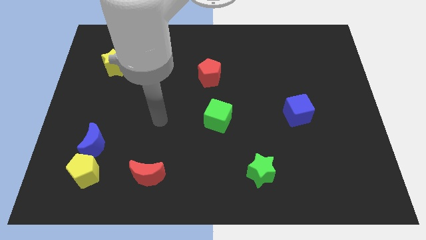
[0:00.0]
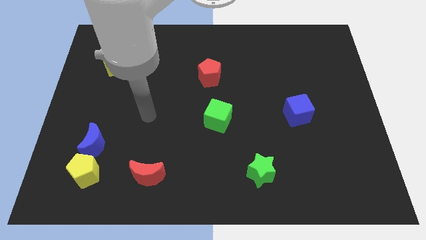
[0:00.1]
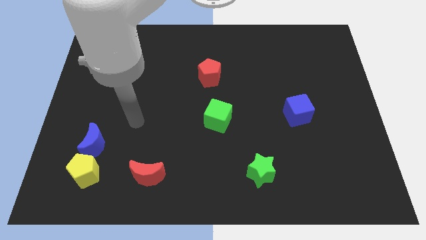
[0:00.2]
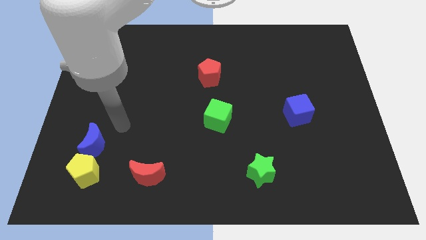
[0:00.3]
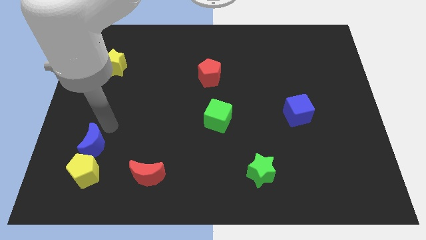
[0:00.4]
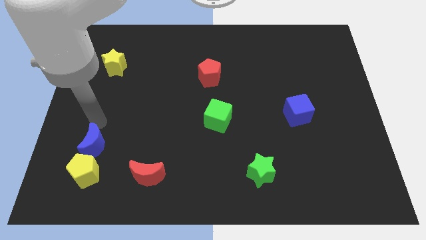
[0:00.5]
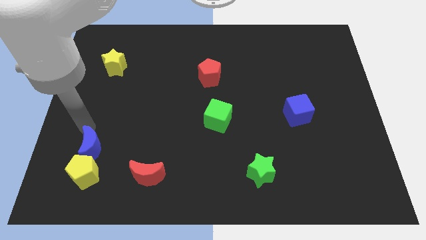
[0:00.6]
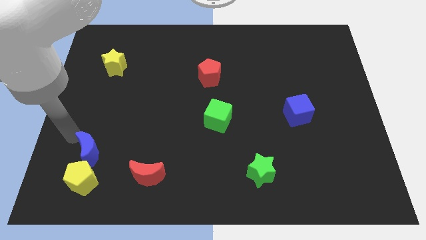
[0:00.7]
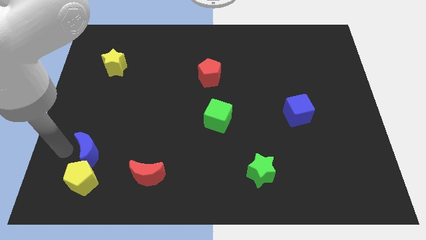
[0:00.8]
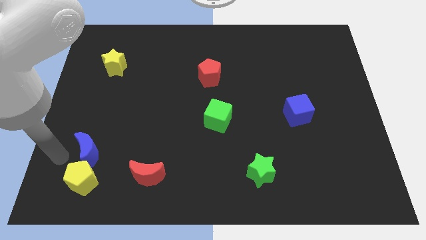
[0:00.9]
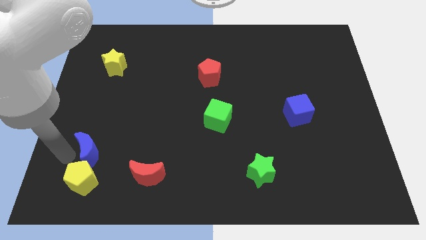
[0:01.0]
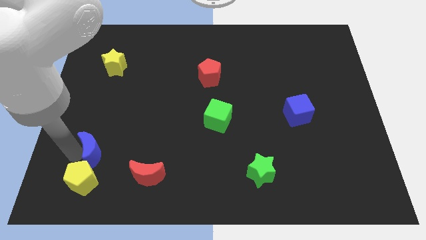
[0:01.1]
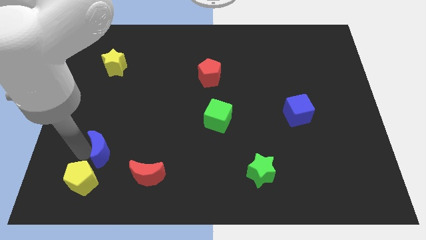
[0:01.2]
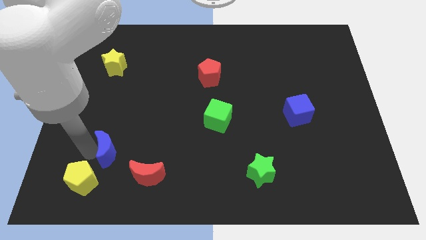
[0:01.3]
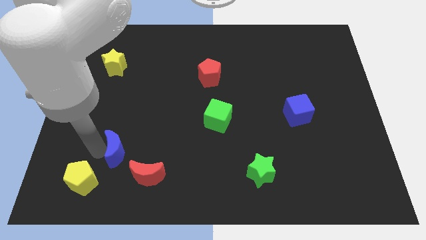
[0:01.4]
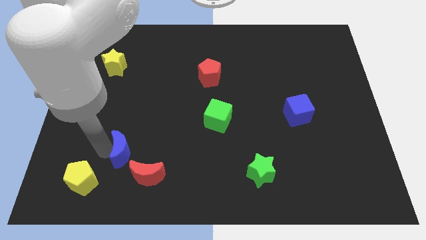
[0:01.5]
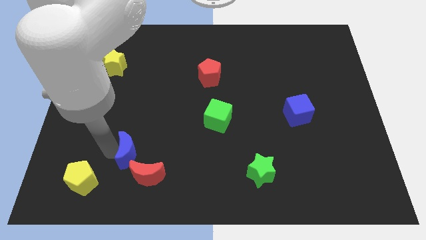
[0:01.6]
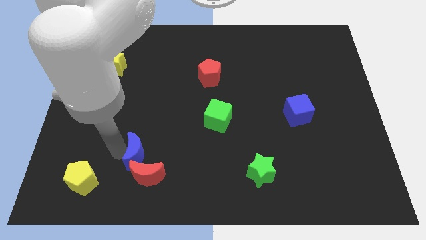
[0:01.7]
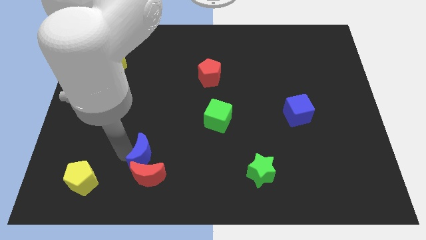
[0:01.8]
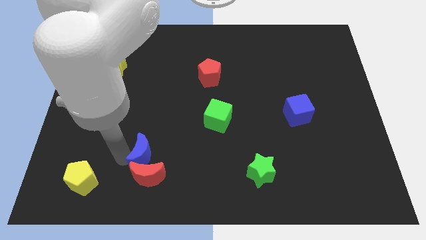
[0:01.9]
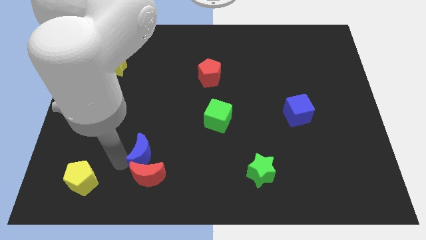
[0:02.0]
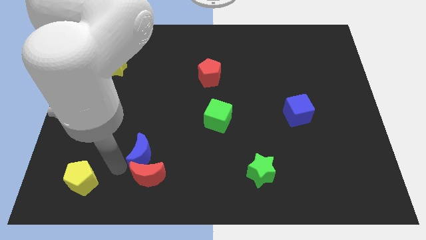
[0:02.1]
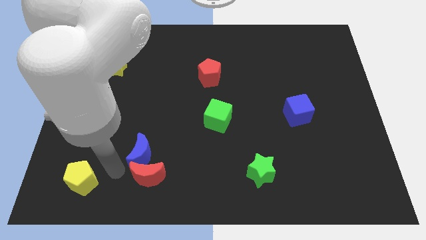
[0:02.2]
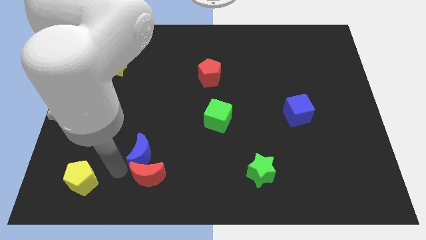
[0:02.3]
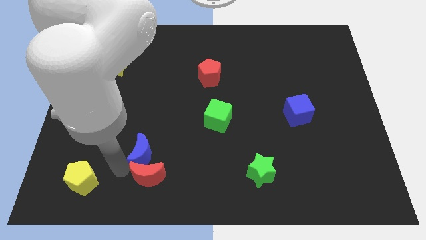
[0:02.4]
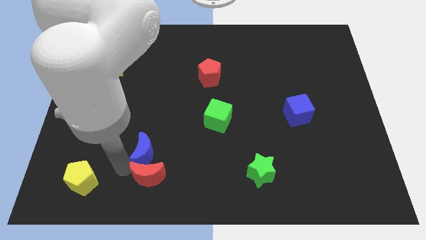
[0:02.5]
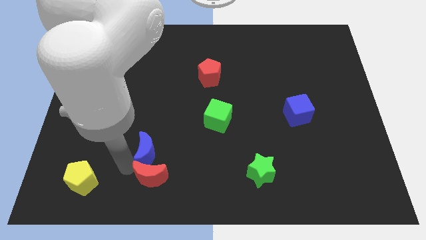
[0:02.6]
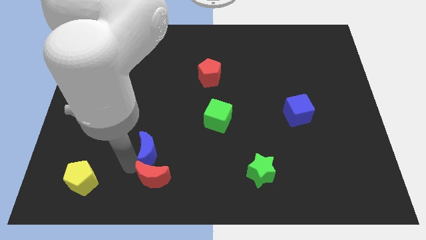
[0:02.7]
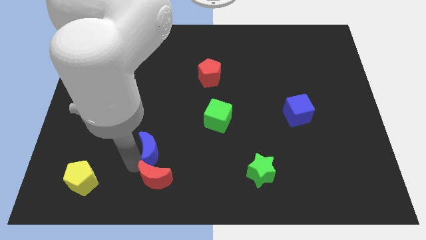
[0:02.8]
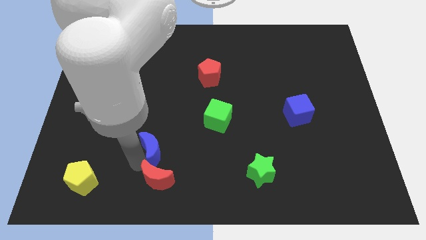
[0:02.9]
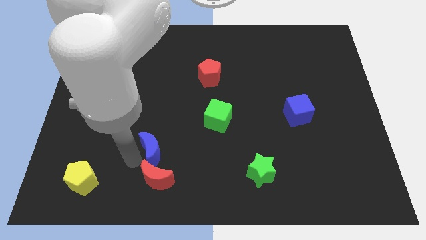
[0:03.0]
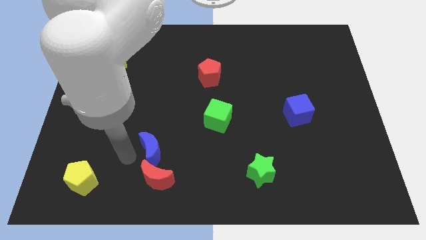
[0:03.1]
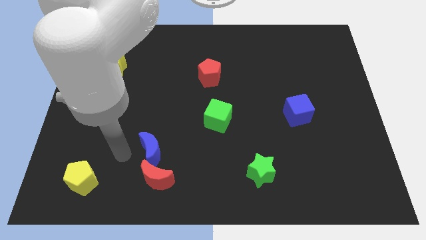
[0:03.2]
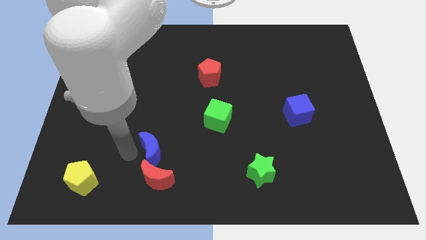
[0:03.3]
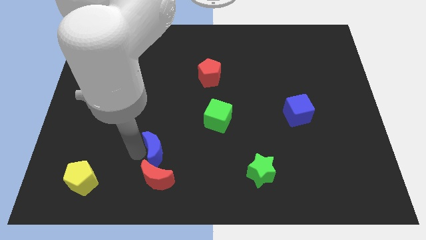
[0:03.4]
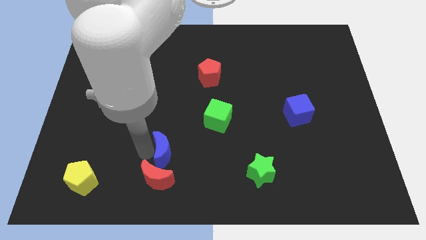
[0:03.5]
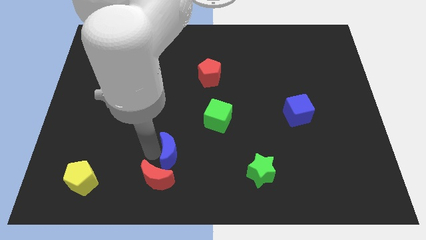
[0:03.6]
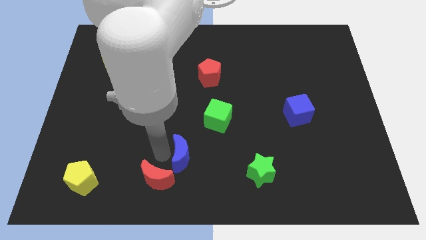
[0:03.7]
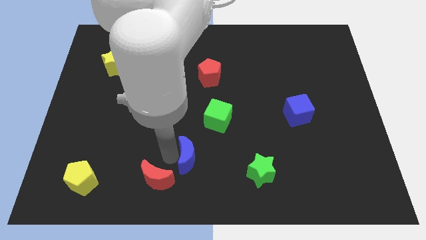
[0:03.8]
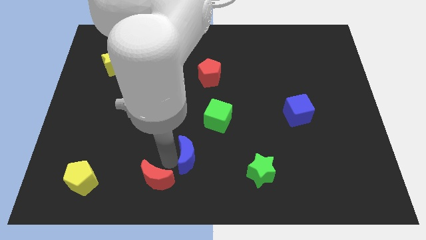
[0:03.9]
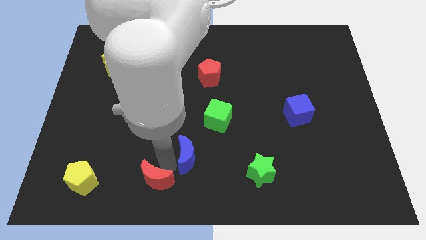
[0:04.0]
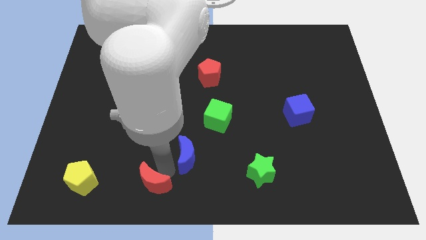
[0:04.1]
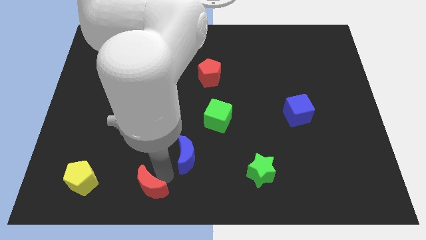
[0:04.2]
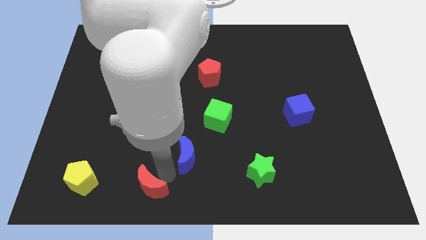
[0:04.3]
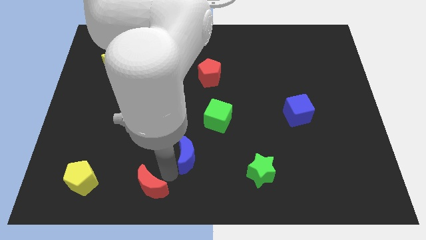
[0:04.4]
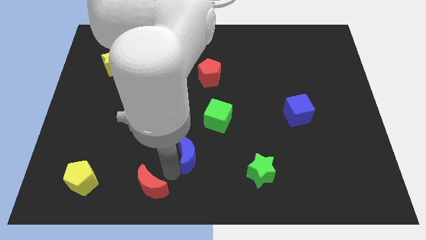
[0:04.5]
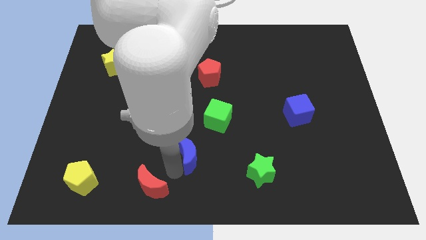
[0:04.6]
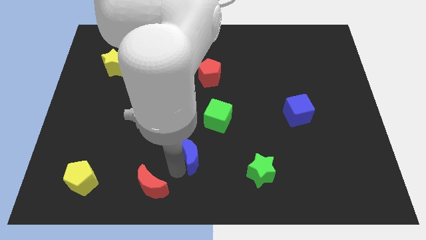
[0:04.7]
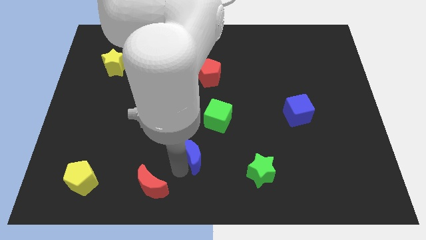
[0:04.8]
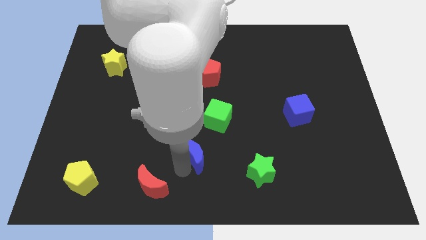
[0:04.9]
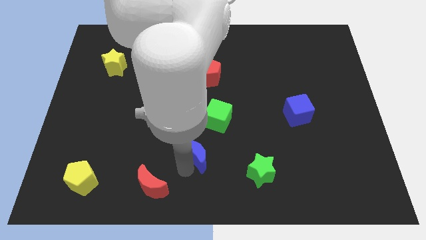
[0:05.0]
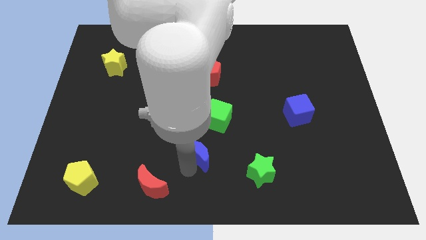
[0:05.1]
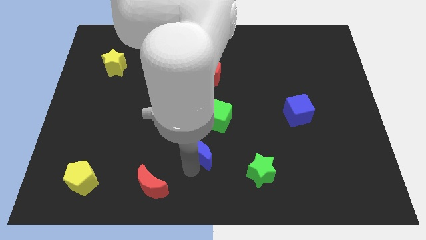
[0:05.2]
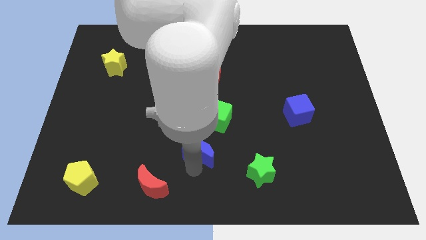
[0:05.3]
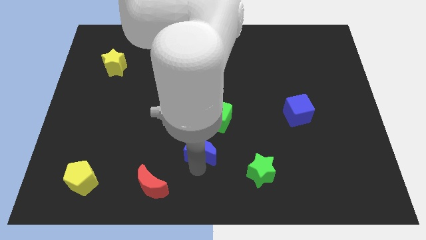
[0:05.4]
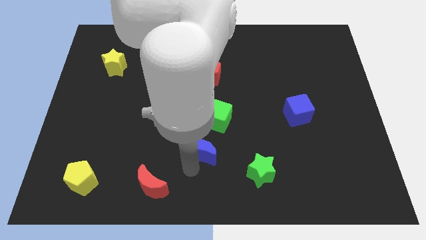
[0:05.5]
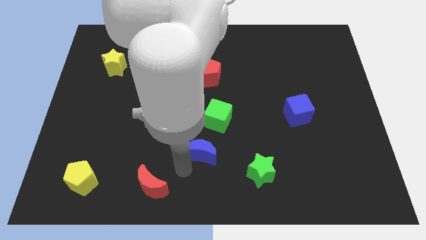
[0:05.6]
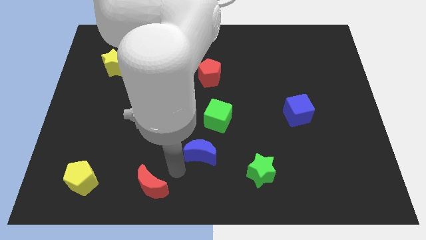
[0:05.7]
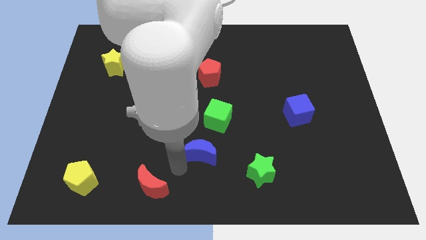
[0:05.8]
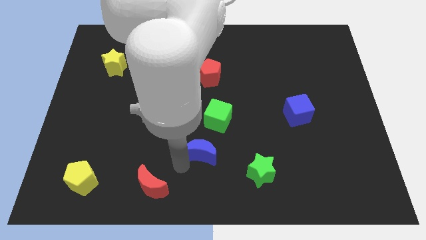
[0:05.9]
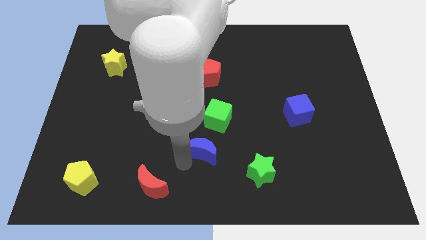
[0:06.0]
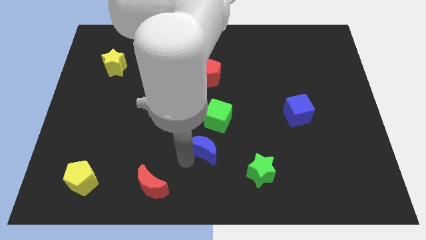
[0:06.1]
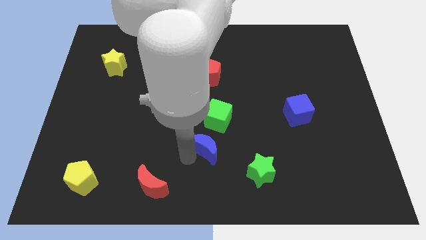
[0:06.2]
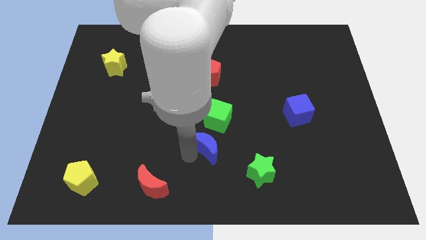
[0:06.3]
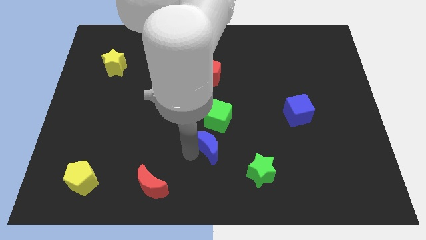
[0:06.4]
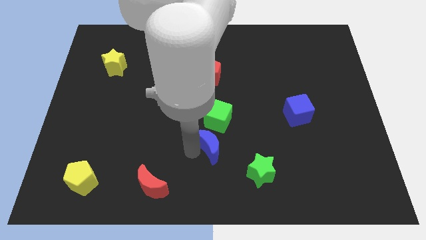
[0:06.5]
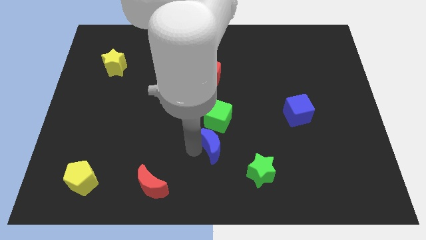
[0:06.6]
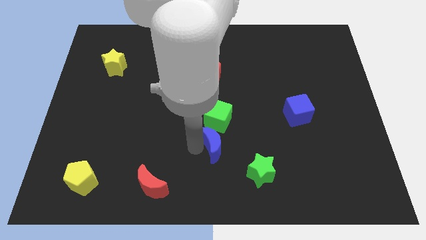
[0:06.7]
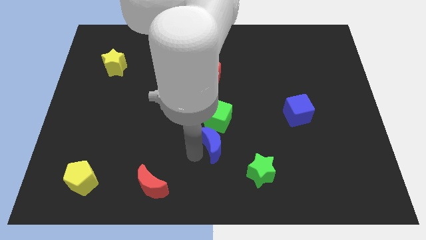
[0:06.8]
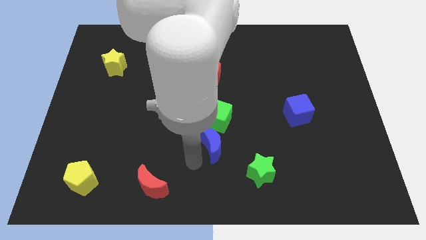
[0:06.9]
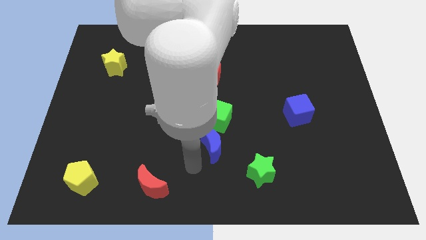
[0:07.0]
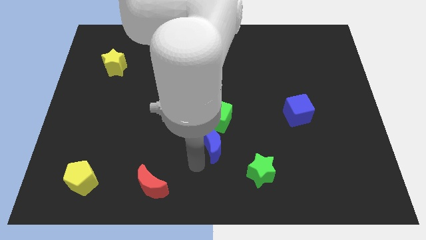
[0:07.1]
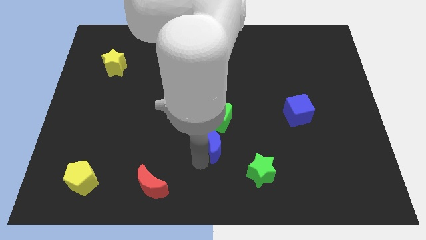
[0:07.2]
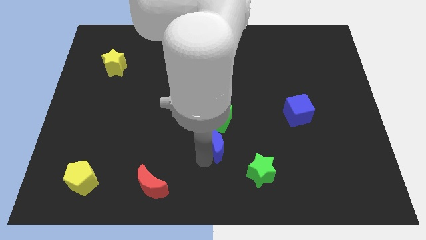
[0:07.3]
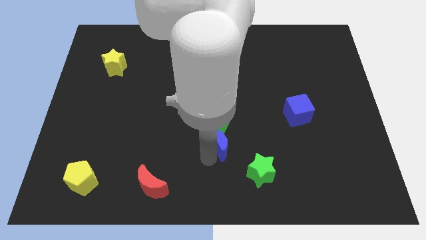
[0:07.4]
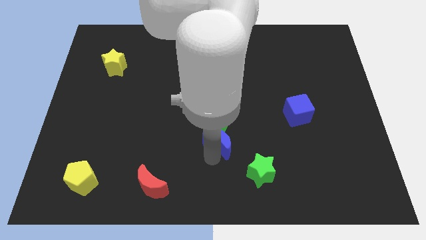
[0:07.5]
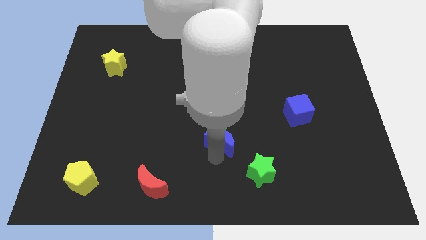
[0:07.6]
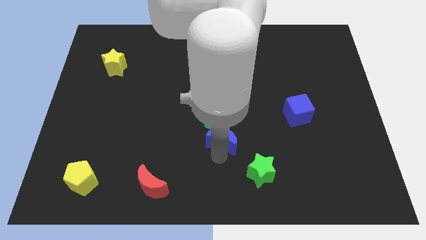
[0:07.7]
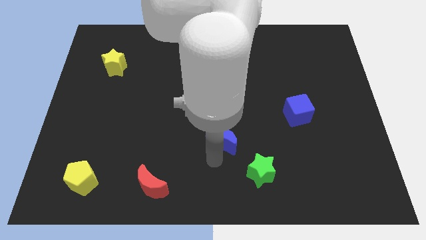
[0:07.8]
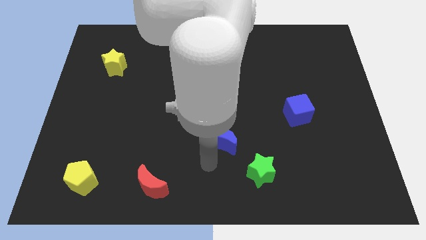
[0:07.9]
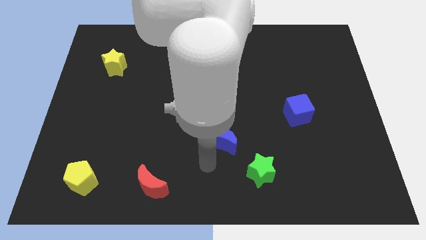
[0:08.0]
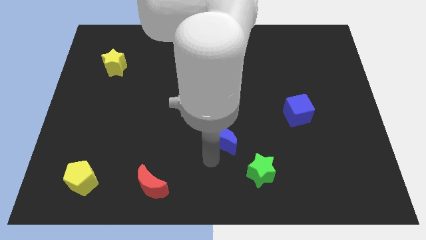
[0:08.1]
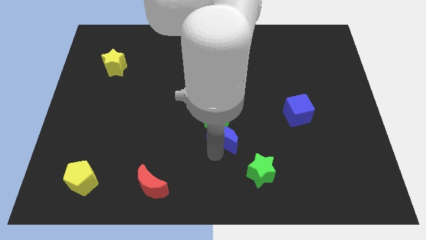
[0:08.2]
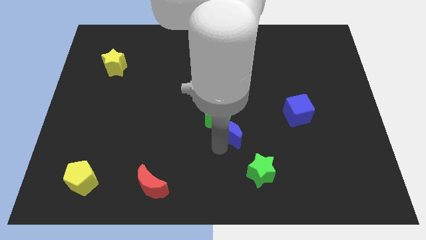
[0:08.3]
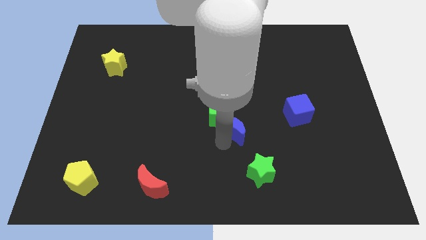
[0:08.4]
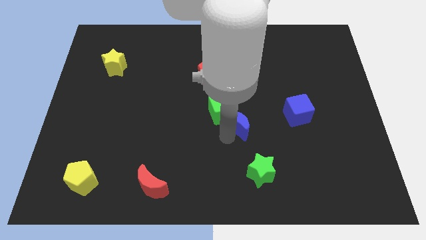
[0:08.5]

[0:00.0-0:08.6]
move the blue moon left of the blue cube
